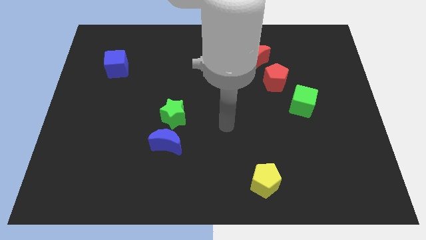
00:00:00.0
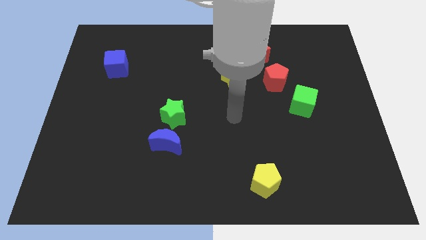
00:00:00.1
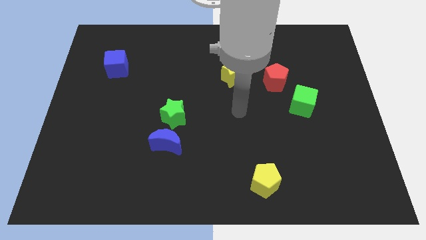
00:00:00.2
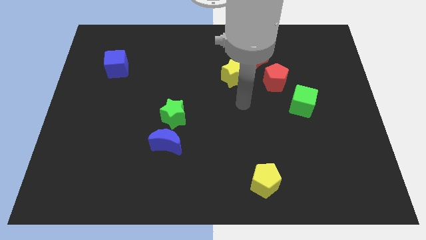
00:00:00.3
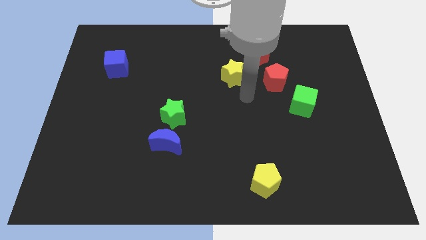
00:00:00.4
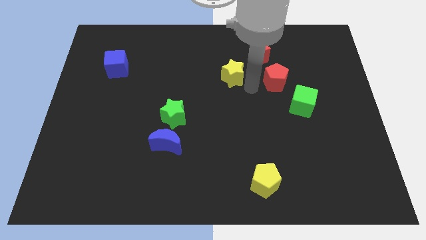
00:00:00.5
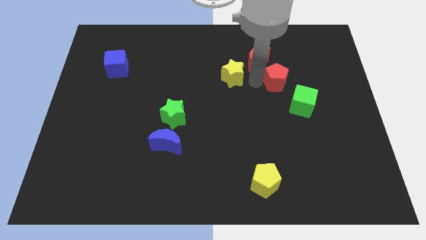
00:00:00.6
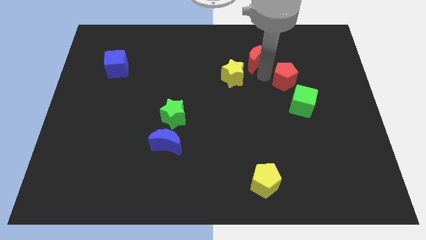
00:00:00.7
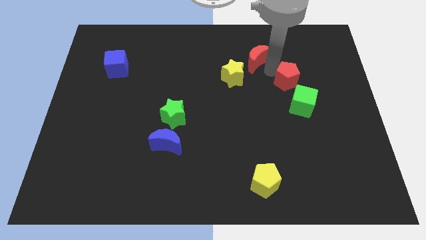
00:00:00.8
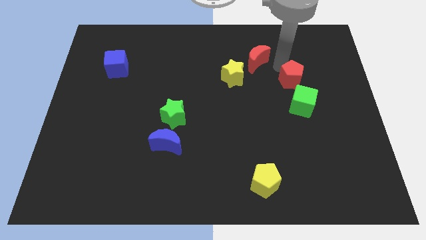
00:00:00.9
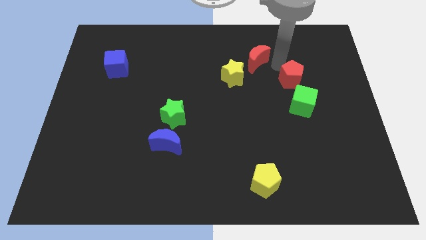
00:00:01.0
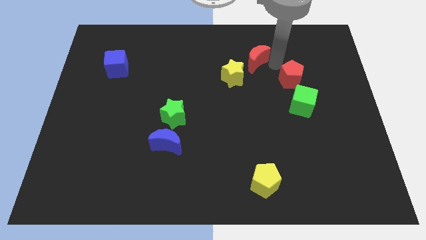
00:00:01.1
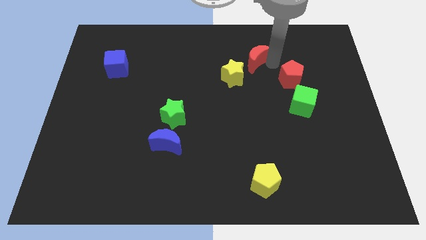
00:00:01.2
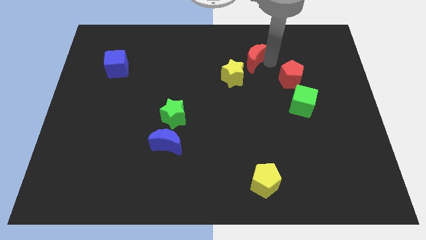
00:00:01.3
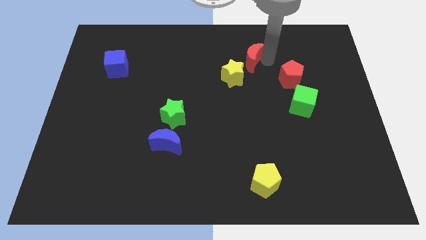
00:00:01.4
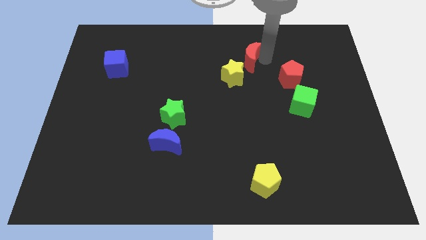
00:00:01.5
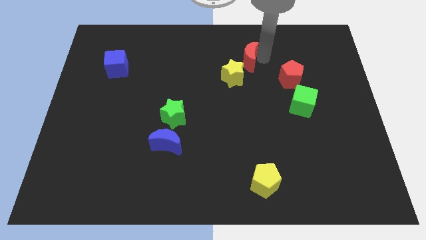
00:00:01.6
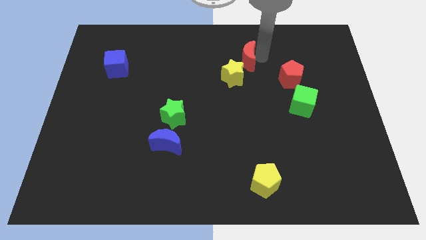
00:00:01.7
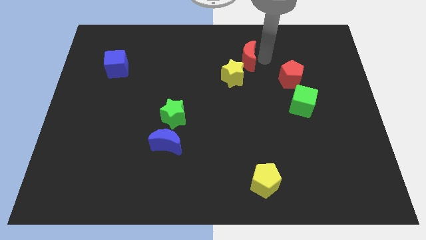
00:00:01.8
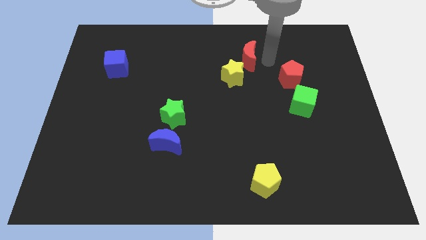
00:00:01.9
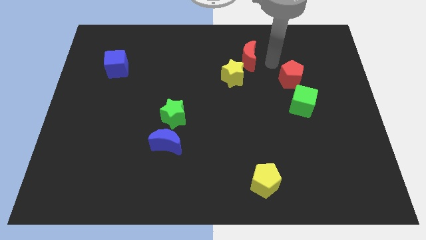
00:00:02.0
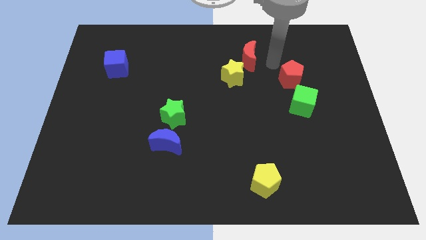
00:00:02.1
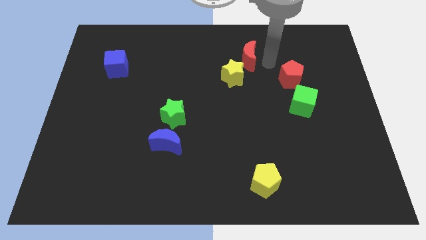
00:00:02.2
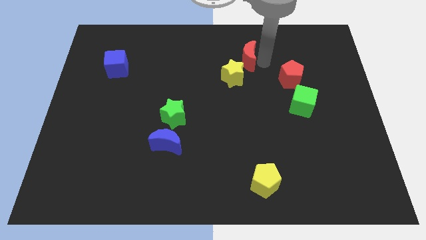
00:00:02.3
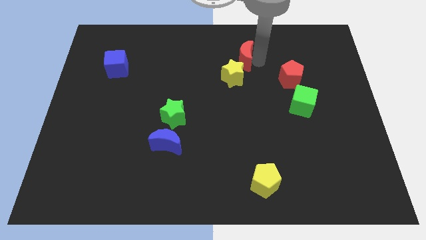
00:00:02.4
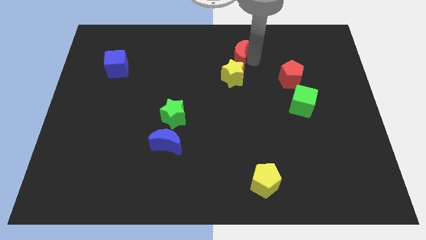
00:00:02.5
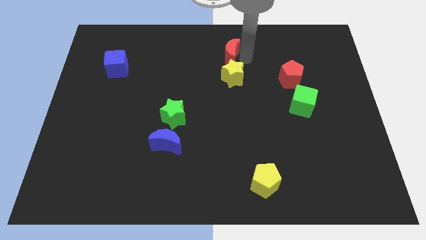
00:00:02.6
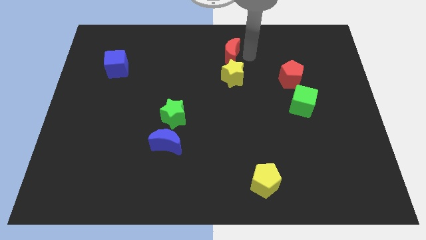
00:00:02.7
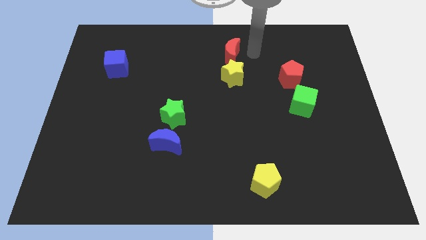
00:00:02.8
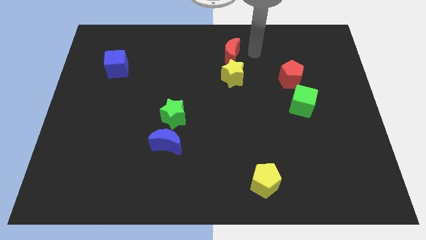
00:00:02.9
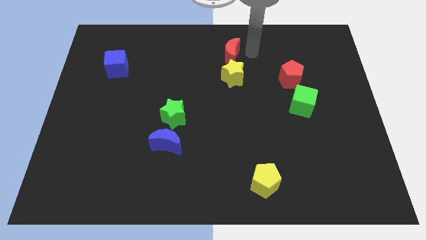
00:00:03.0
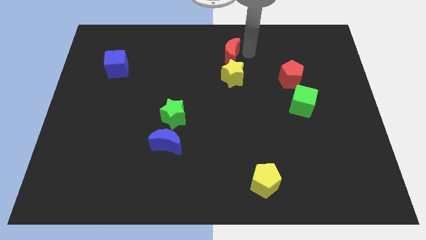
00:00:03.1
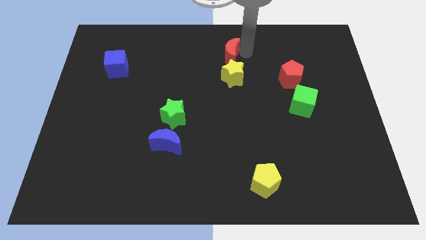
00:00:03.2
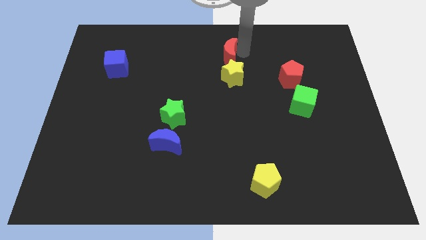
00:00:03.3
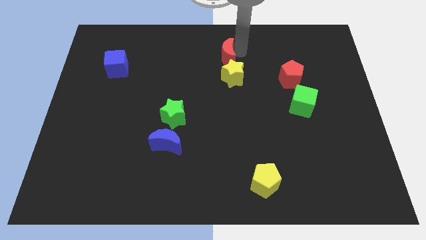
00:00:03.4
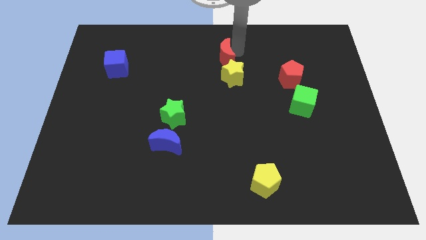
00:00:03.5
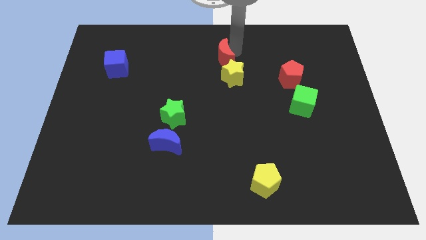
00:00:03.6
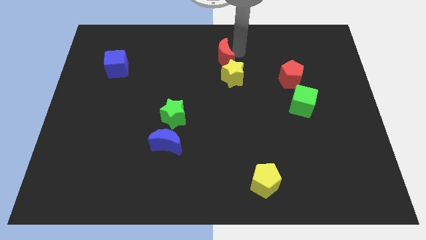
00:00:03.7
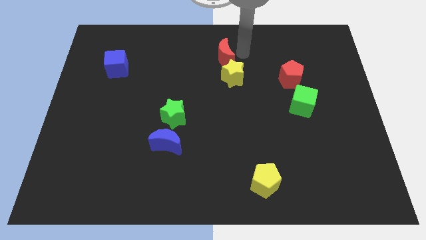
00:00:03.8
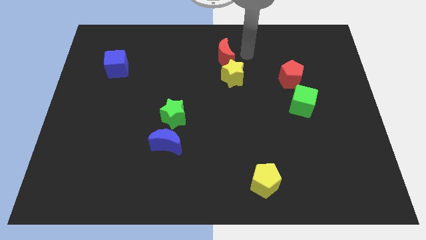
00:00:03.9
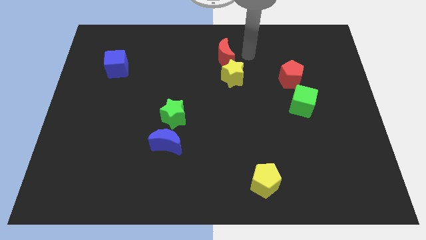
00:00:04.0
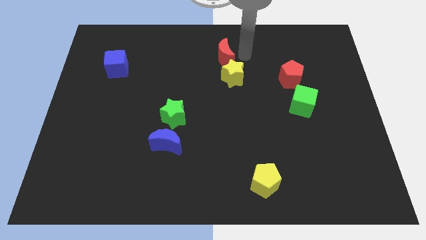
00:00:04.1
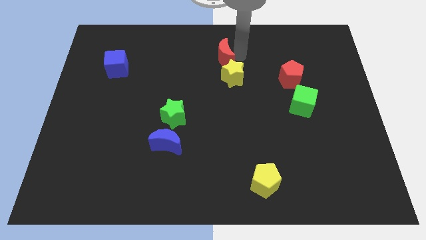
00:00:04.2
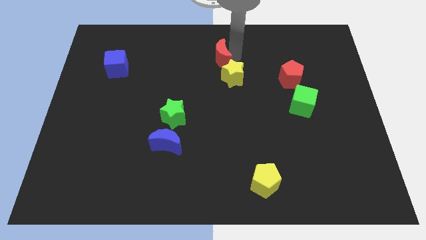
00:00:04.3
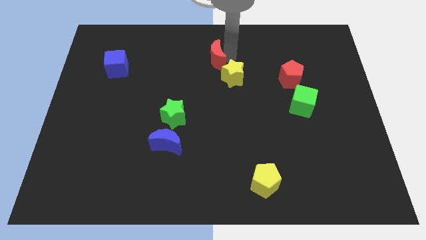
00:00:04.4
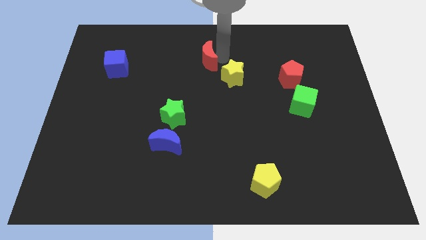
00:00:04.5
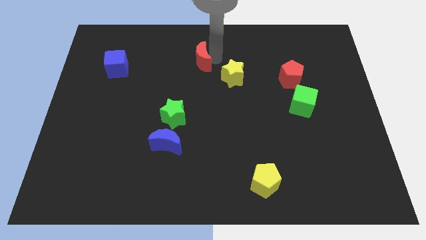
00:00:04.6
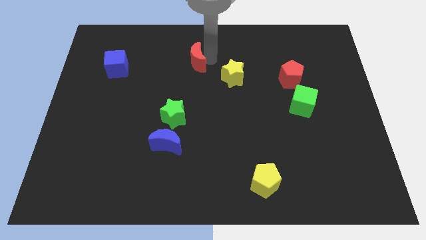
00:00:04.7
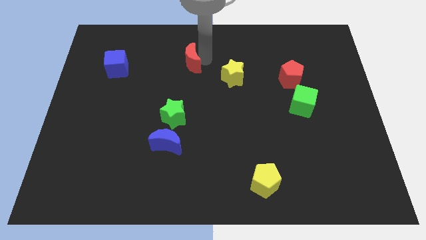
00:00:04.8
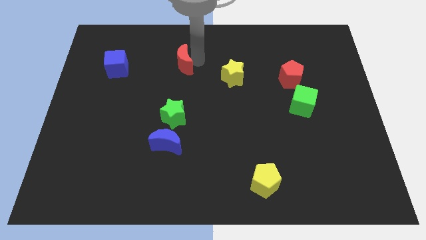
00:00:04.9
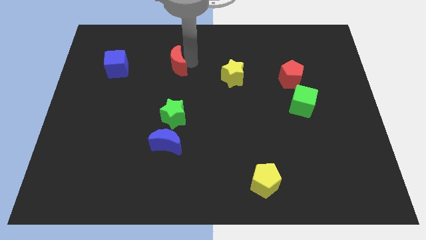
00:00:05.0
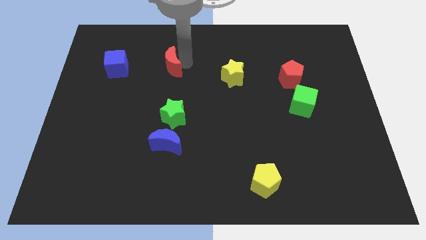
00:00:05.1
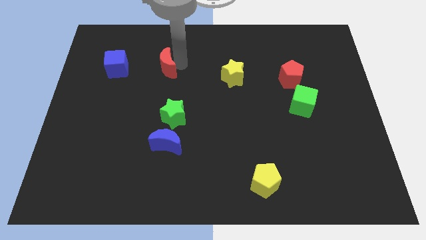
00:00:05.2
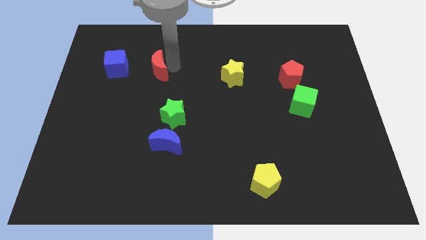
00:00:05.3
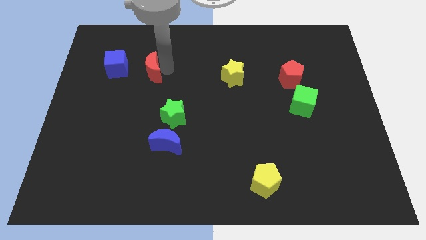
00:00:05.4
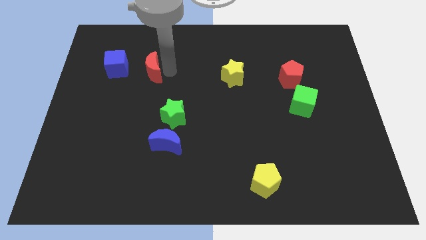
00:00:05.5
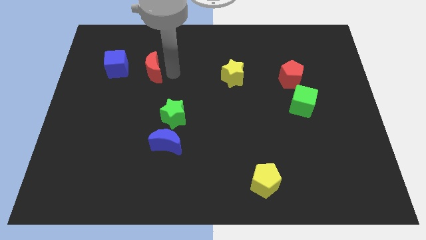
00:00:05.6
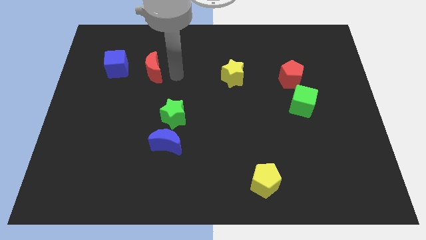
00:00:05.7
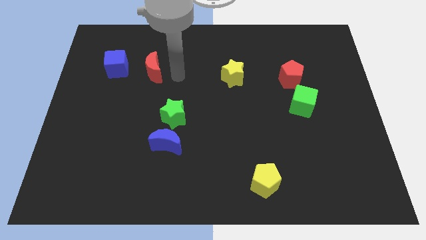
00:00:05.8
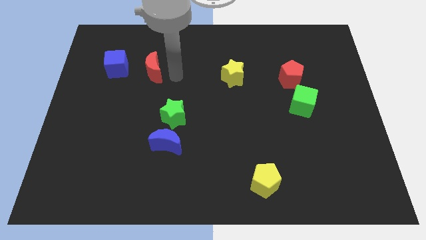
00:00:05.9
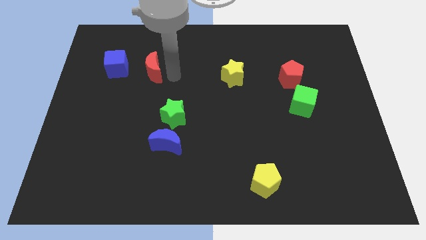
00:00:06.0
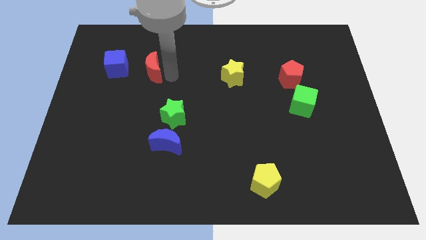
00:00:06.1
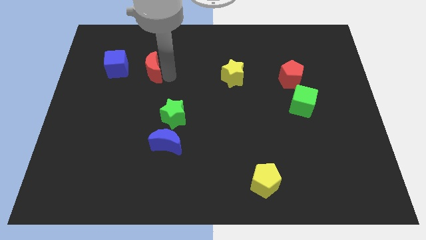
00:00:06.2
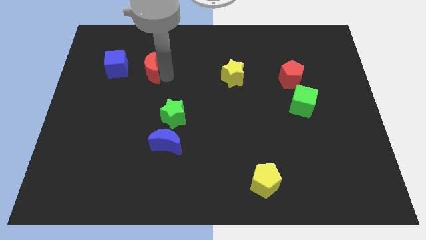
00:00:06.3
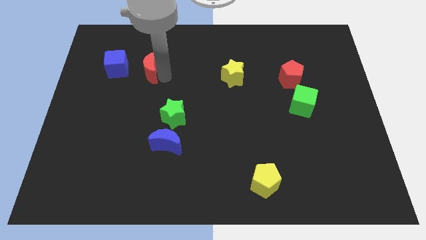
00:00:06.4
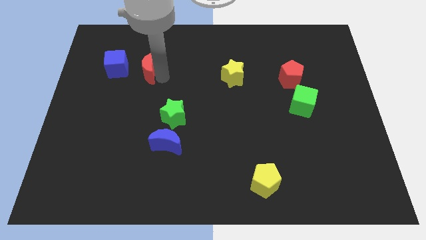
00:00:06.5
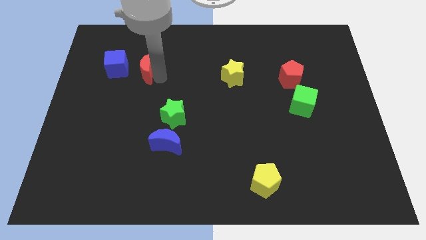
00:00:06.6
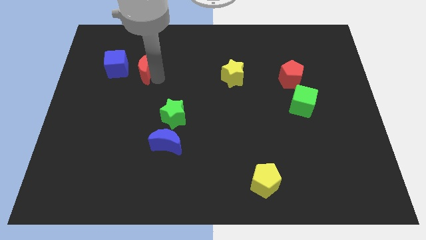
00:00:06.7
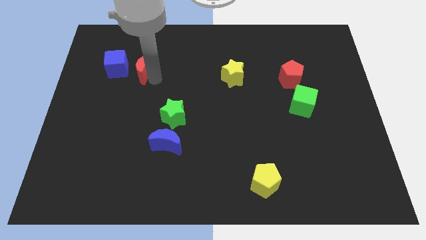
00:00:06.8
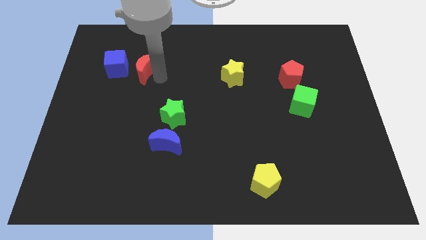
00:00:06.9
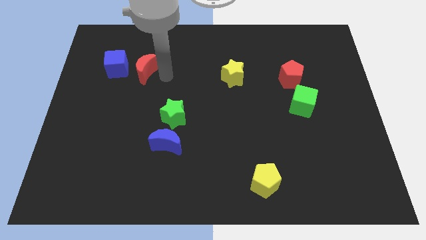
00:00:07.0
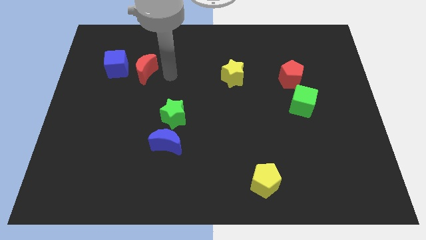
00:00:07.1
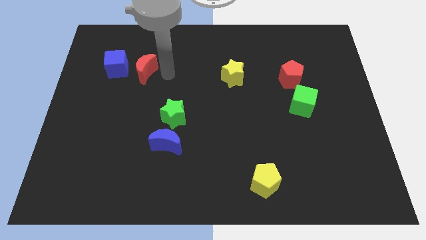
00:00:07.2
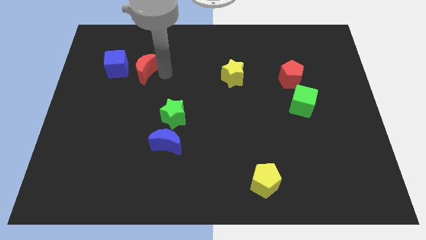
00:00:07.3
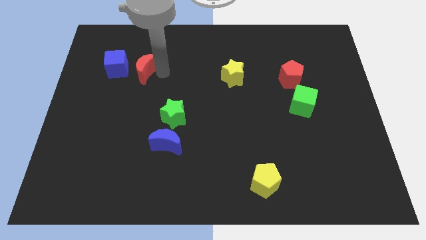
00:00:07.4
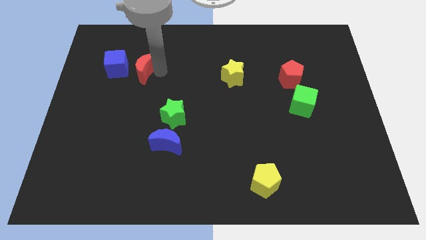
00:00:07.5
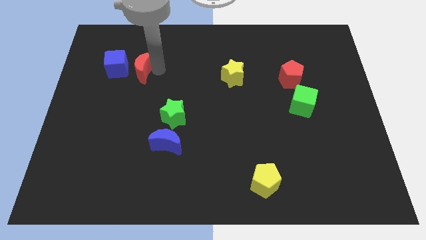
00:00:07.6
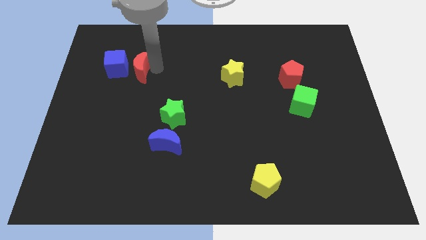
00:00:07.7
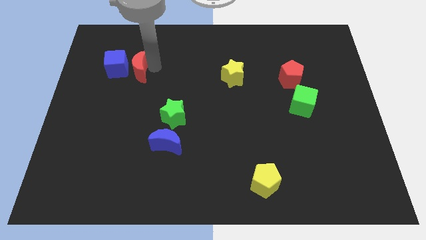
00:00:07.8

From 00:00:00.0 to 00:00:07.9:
slide the red moon close to the blue cube

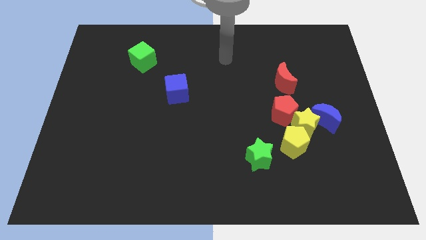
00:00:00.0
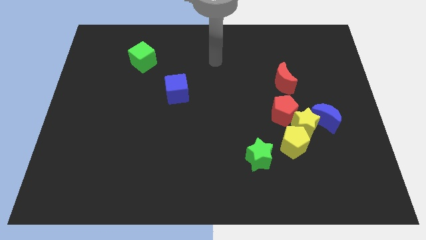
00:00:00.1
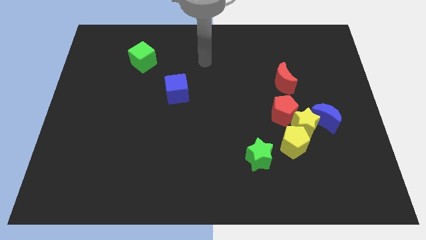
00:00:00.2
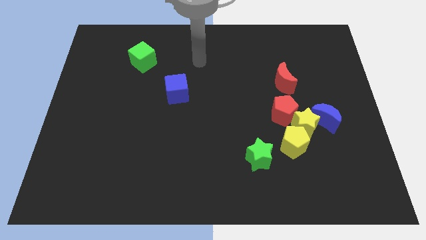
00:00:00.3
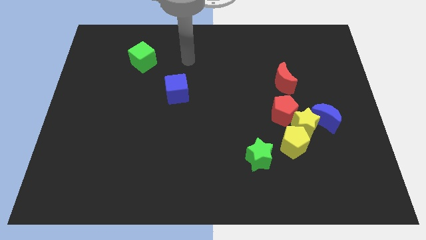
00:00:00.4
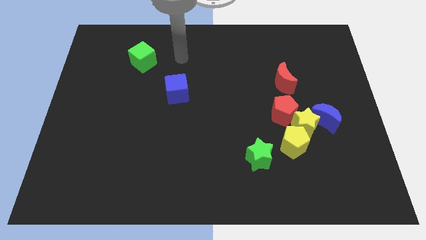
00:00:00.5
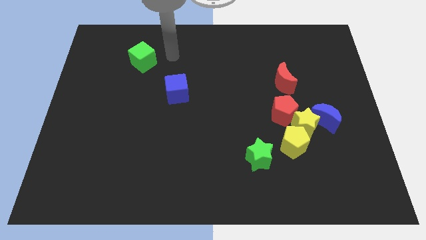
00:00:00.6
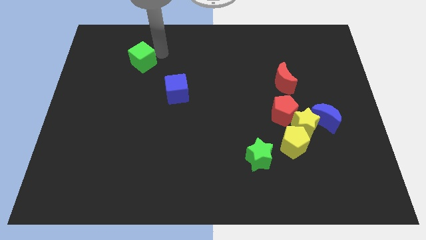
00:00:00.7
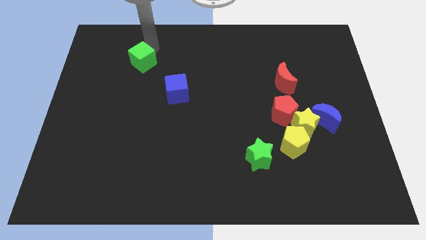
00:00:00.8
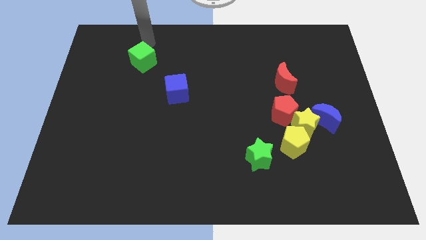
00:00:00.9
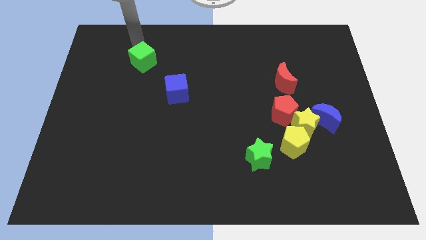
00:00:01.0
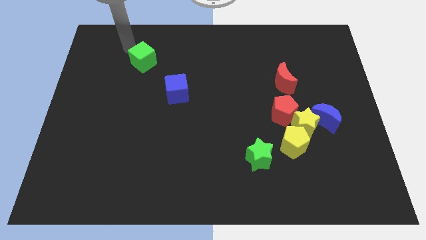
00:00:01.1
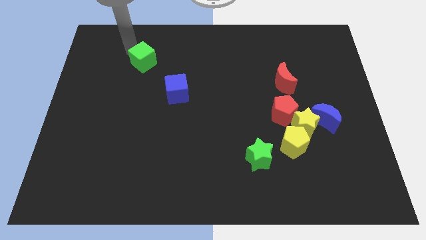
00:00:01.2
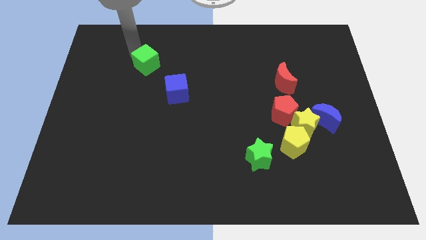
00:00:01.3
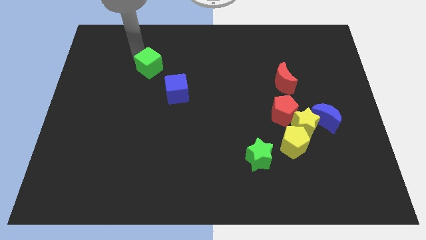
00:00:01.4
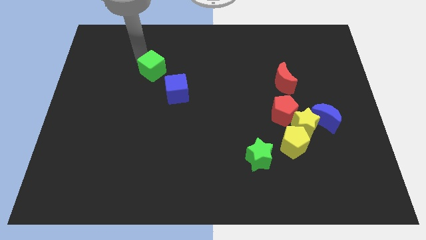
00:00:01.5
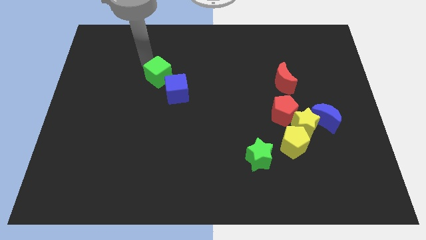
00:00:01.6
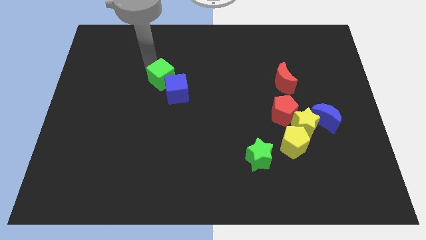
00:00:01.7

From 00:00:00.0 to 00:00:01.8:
slide the green cube close to the blue cube
